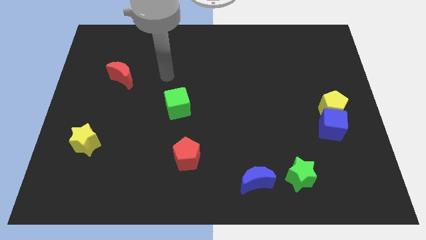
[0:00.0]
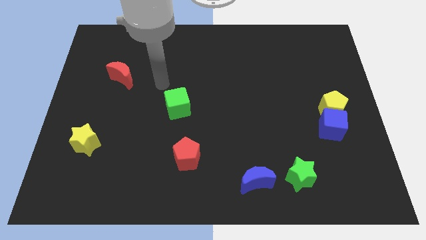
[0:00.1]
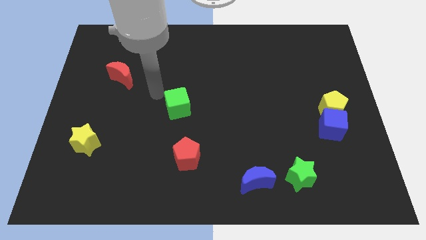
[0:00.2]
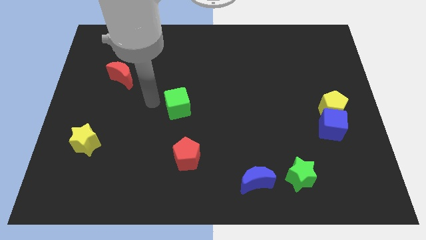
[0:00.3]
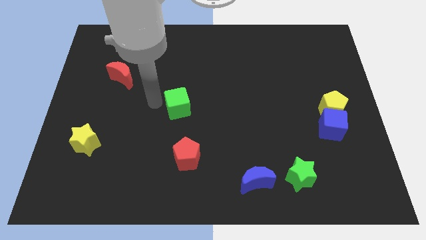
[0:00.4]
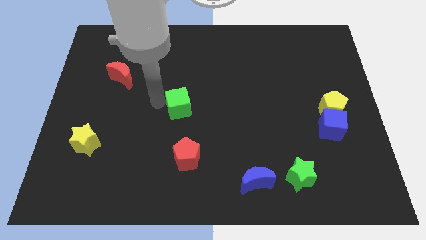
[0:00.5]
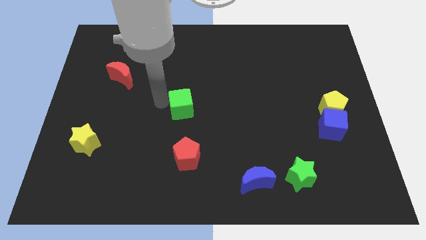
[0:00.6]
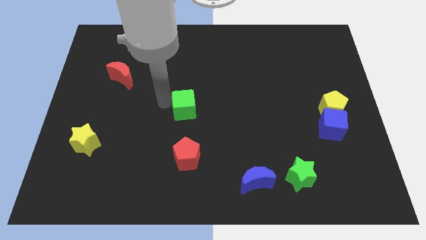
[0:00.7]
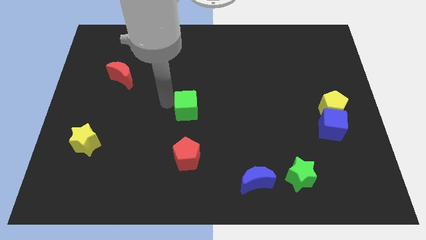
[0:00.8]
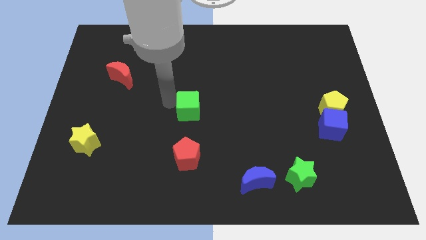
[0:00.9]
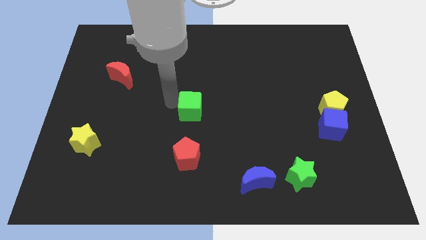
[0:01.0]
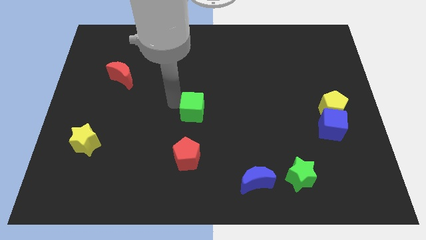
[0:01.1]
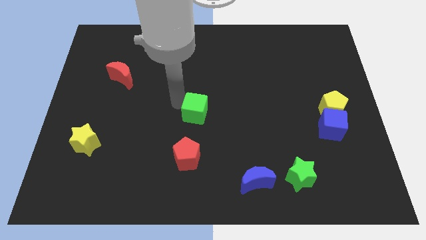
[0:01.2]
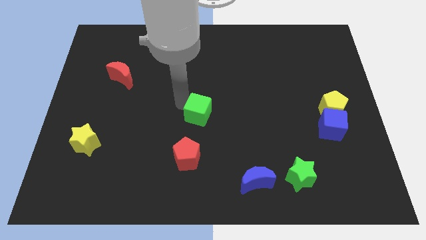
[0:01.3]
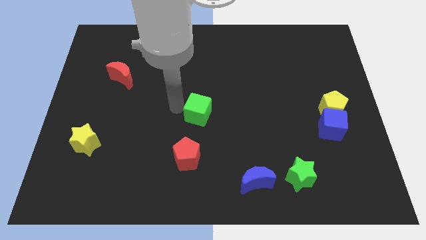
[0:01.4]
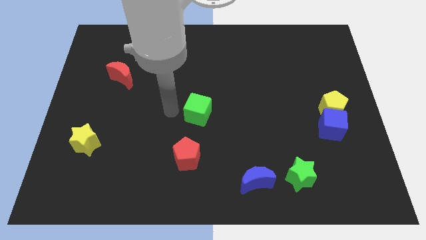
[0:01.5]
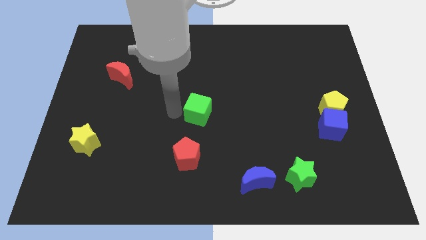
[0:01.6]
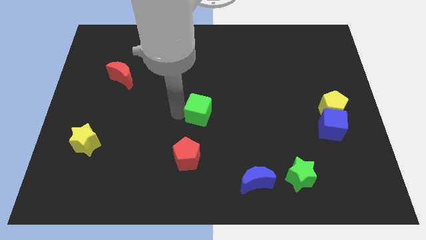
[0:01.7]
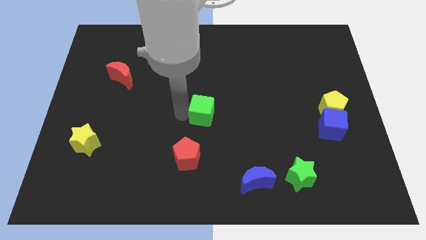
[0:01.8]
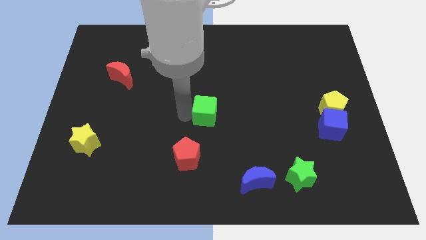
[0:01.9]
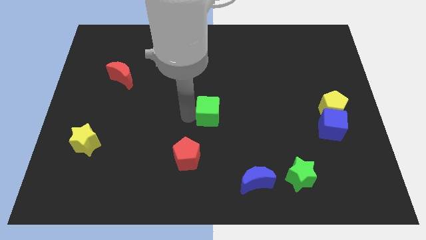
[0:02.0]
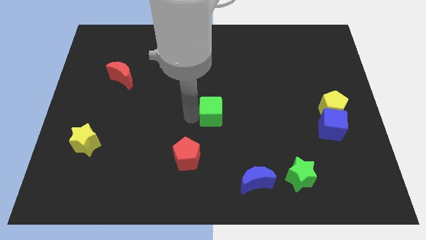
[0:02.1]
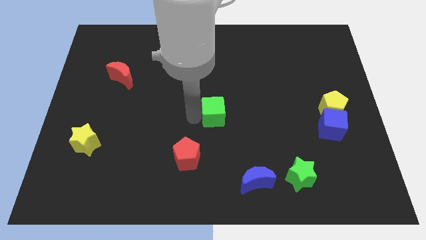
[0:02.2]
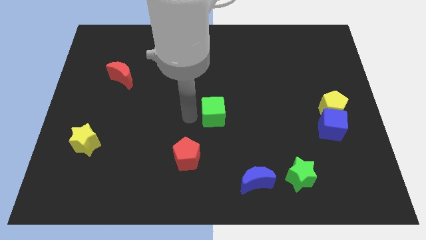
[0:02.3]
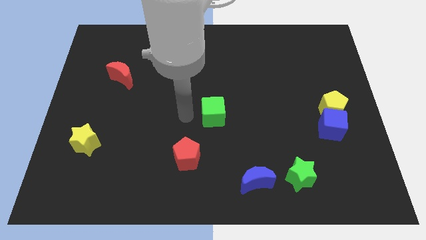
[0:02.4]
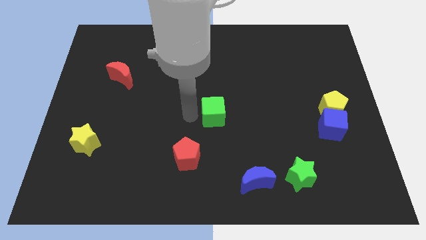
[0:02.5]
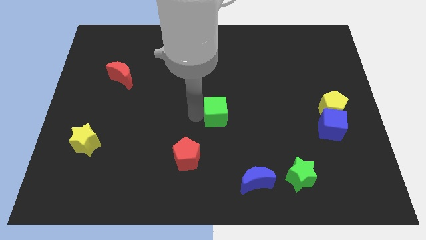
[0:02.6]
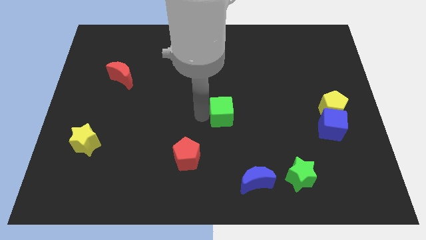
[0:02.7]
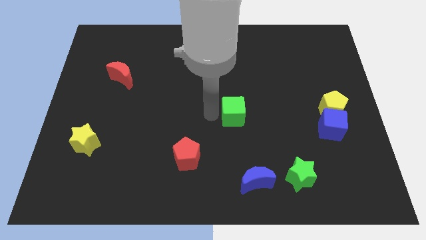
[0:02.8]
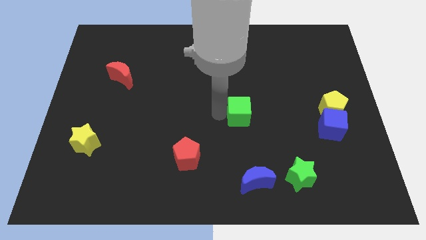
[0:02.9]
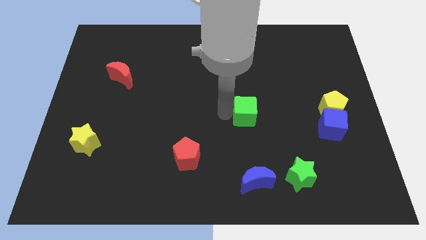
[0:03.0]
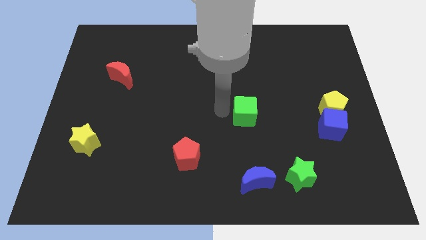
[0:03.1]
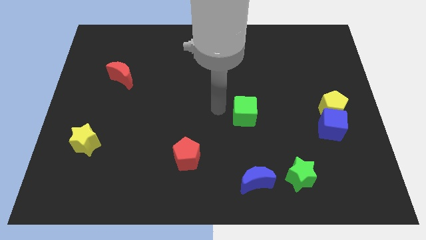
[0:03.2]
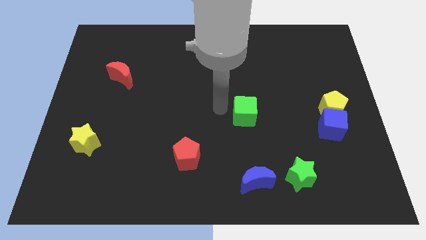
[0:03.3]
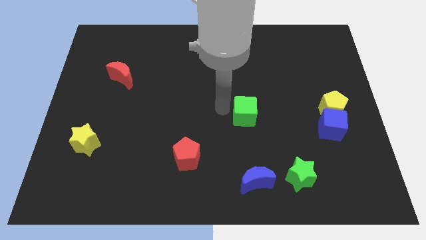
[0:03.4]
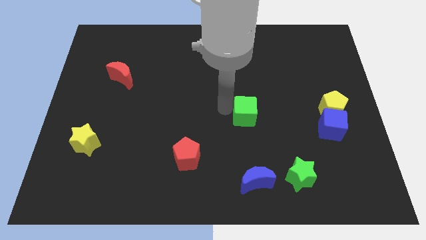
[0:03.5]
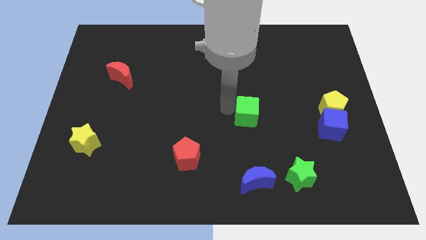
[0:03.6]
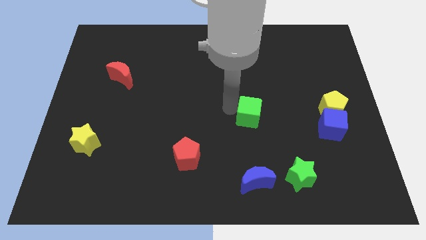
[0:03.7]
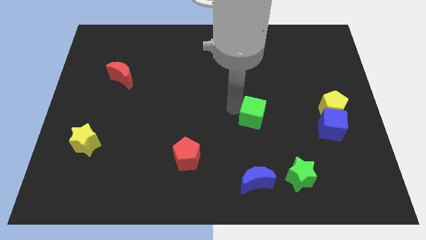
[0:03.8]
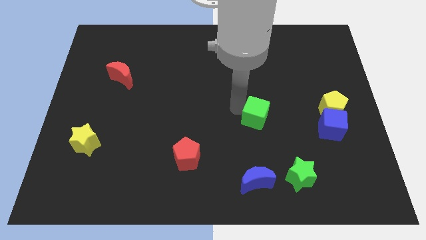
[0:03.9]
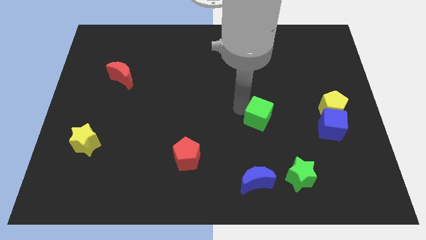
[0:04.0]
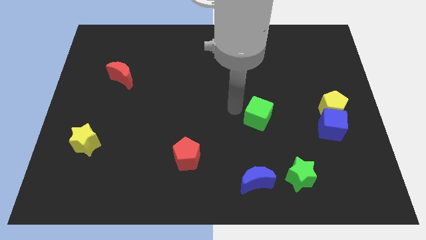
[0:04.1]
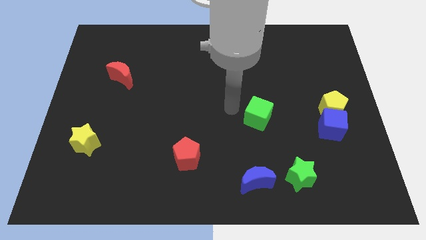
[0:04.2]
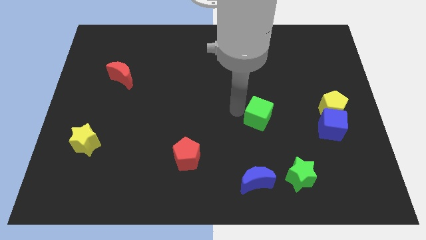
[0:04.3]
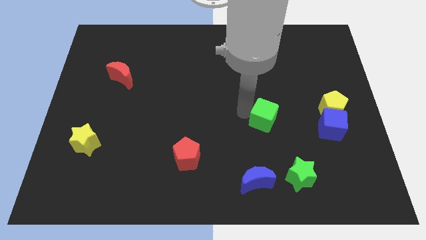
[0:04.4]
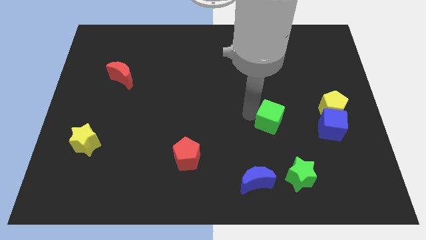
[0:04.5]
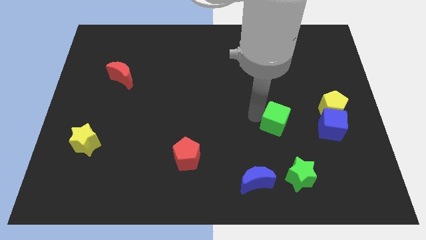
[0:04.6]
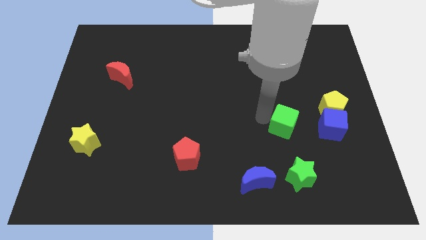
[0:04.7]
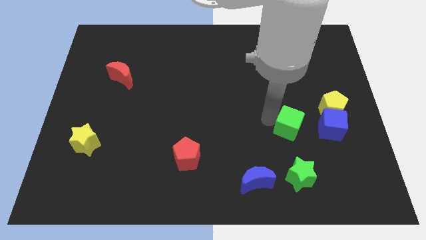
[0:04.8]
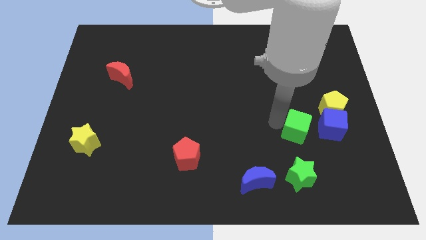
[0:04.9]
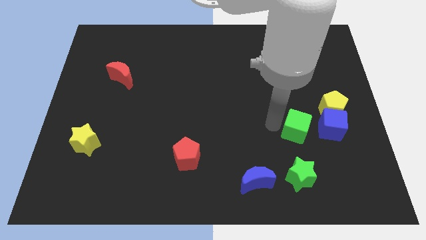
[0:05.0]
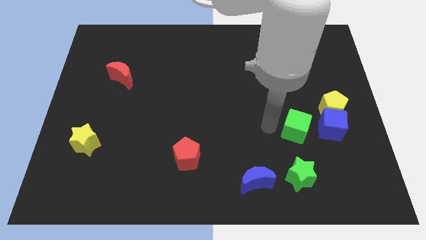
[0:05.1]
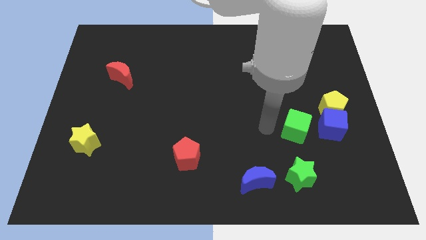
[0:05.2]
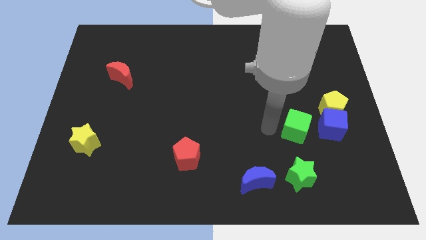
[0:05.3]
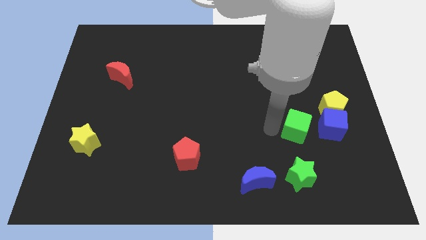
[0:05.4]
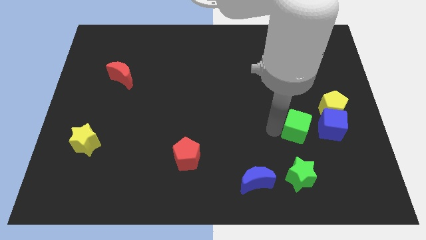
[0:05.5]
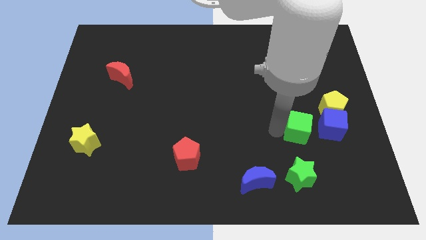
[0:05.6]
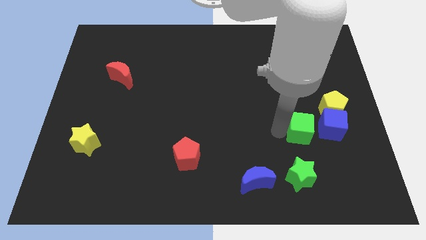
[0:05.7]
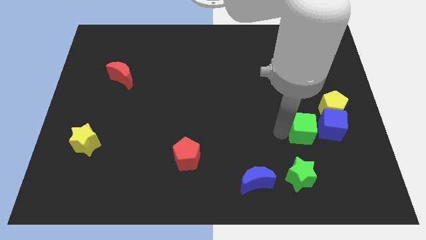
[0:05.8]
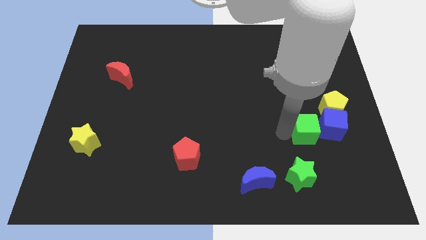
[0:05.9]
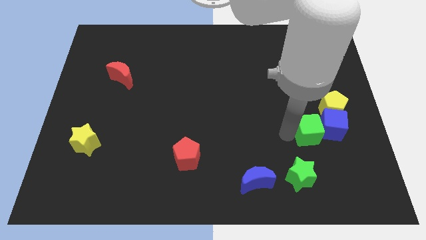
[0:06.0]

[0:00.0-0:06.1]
push the green cube next to the blue cube
